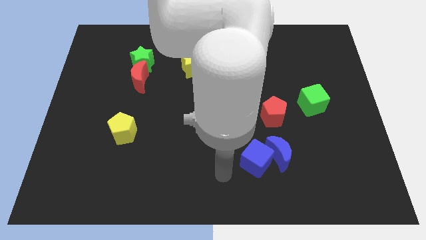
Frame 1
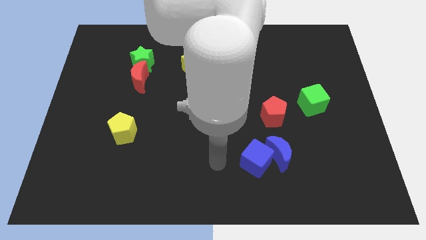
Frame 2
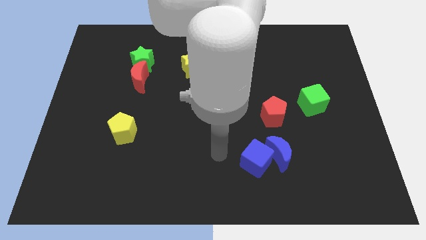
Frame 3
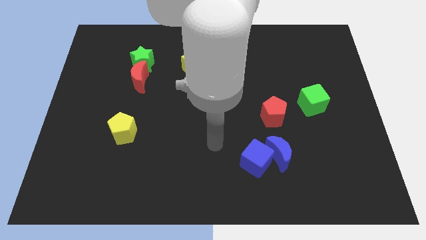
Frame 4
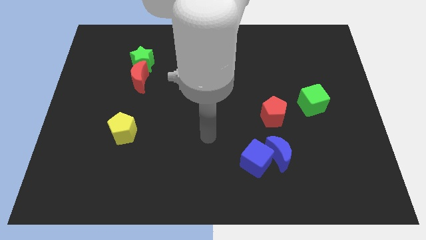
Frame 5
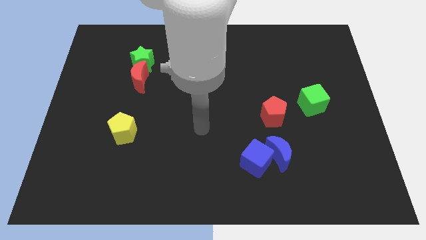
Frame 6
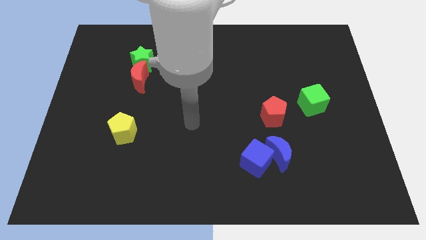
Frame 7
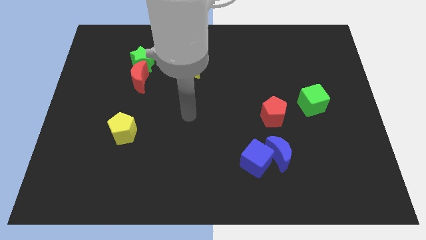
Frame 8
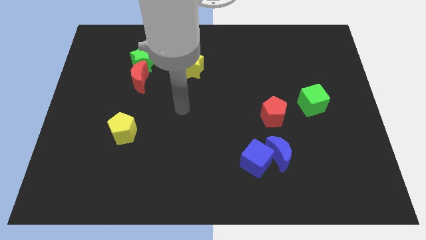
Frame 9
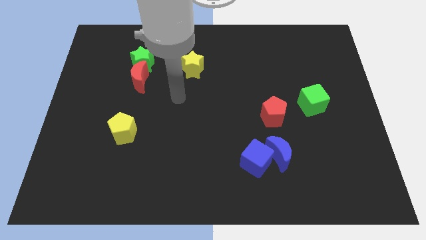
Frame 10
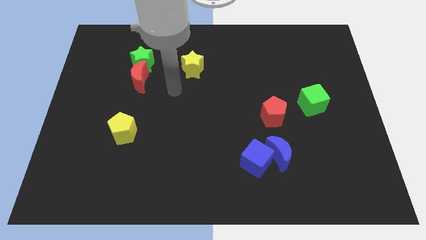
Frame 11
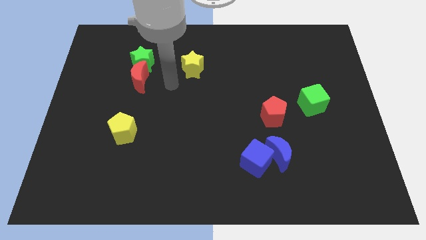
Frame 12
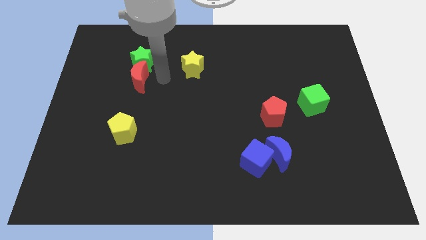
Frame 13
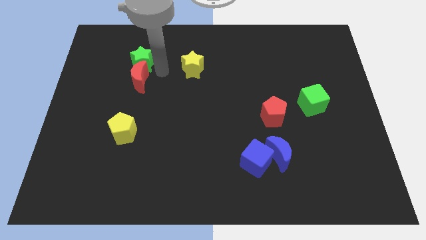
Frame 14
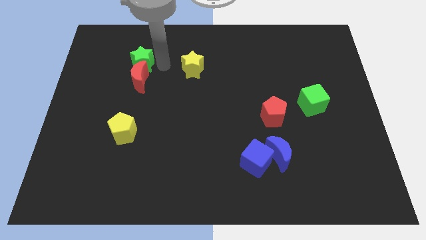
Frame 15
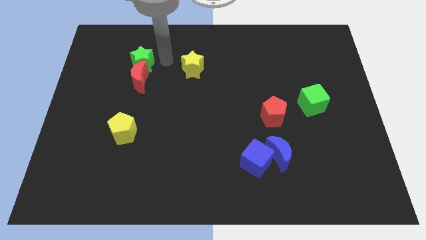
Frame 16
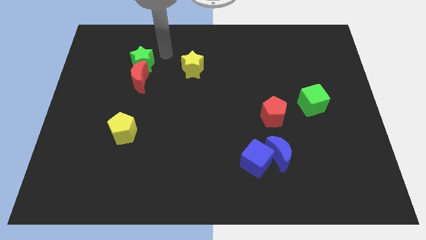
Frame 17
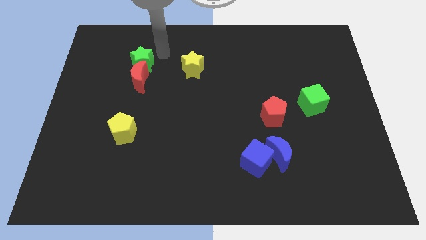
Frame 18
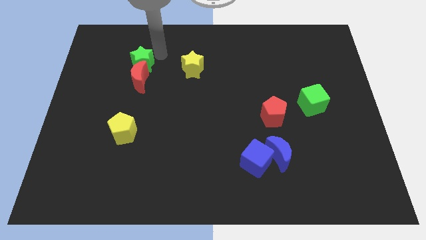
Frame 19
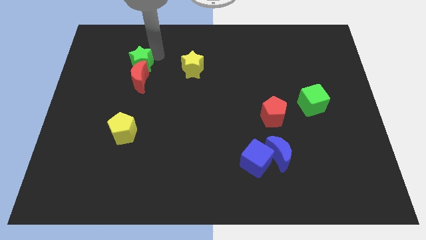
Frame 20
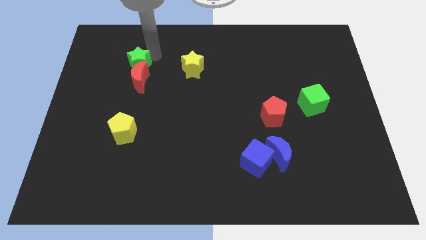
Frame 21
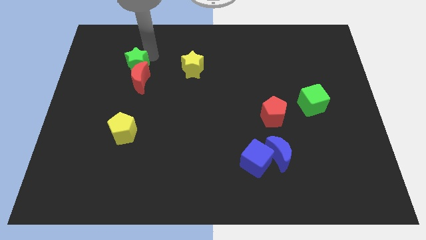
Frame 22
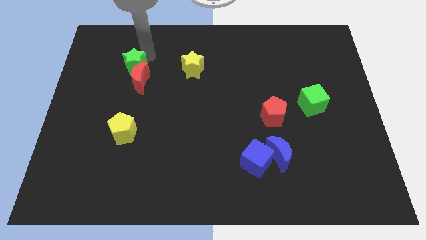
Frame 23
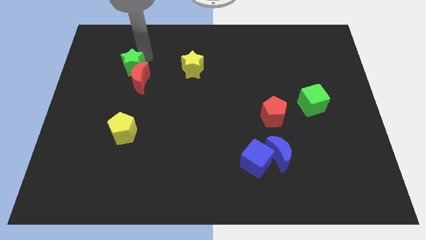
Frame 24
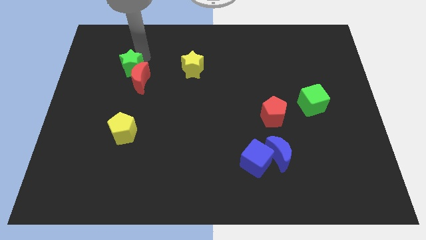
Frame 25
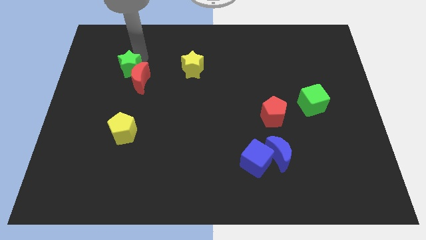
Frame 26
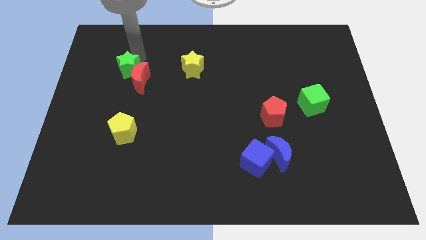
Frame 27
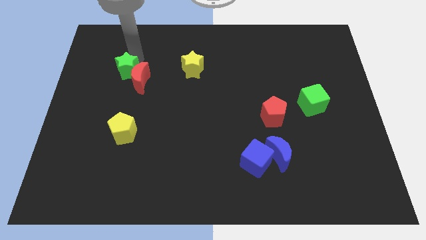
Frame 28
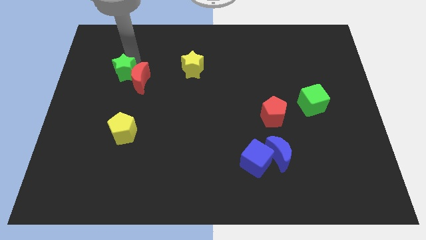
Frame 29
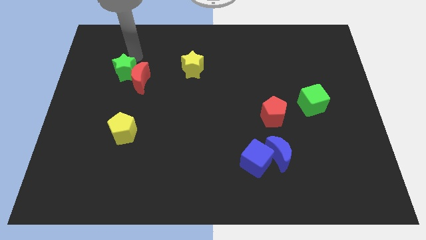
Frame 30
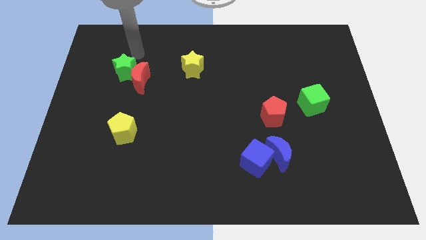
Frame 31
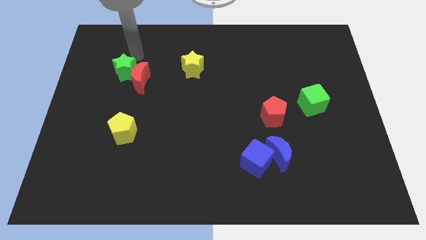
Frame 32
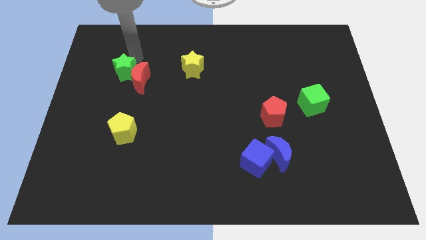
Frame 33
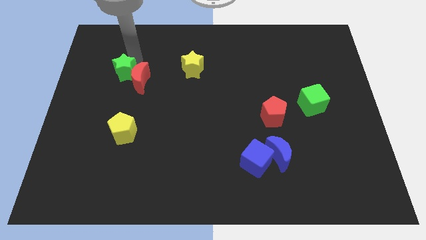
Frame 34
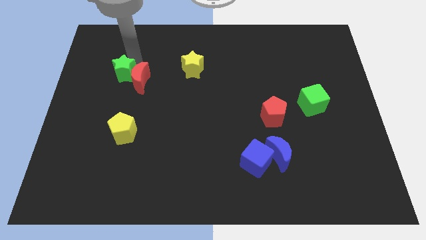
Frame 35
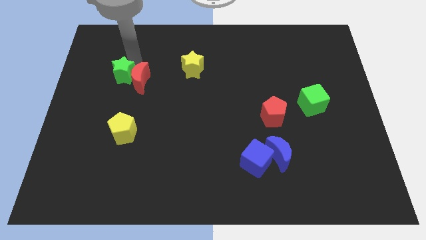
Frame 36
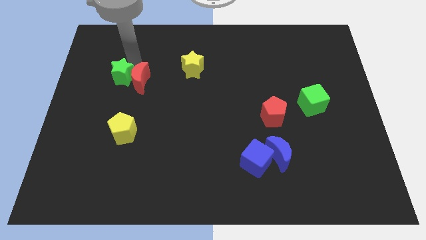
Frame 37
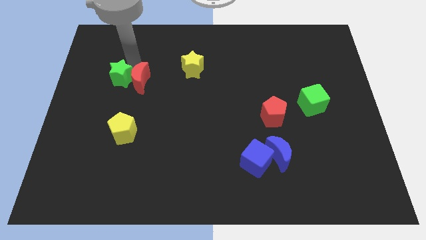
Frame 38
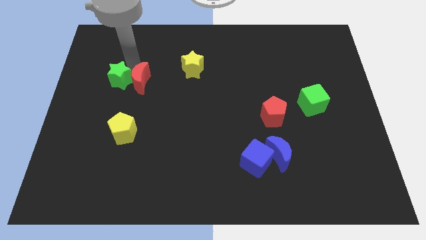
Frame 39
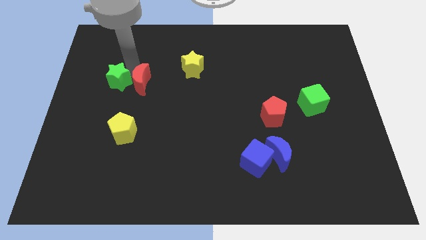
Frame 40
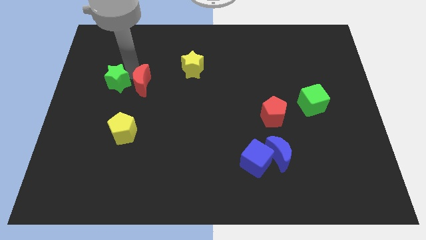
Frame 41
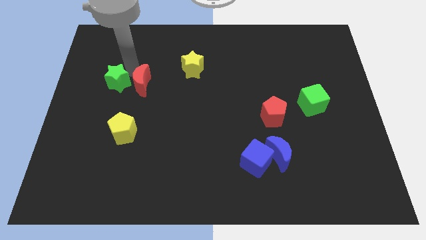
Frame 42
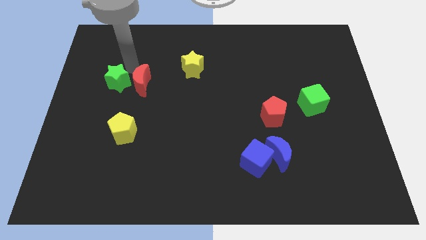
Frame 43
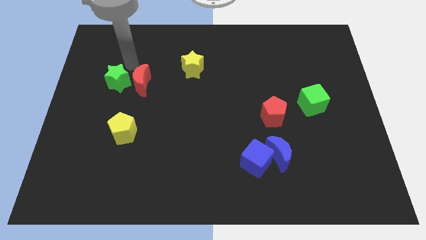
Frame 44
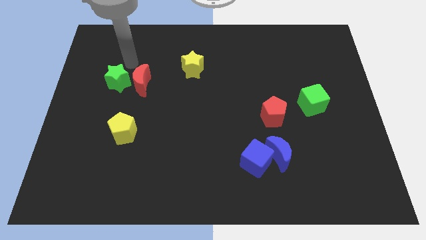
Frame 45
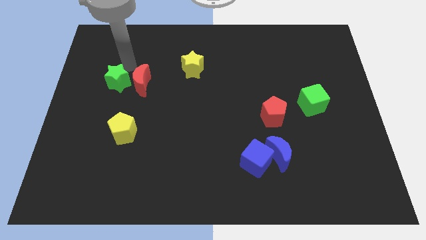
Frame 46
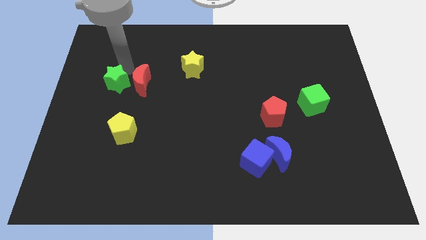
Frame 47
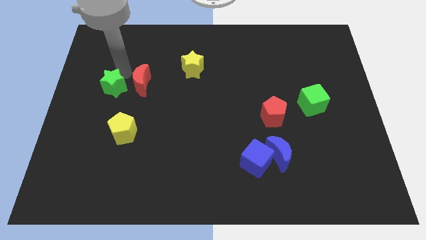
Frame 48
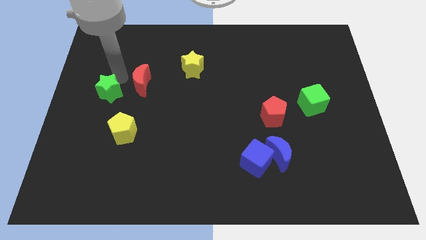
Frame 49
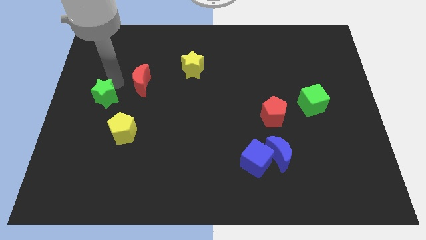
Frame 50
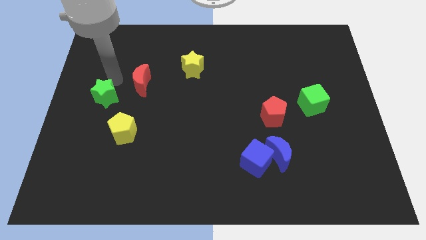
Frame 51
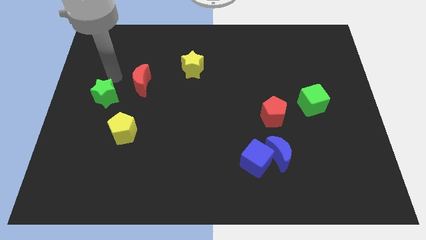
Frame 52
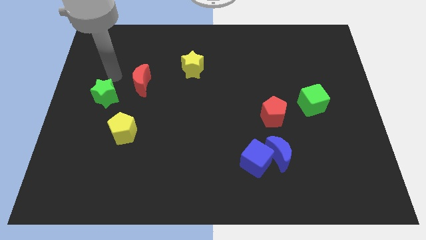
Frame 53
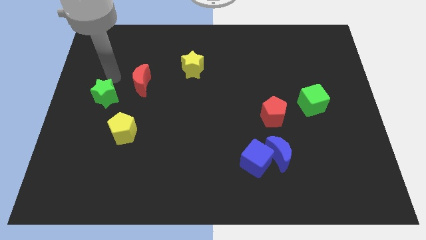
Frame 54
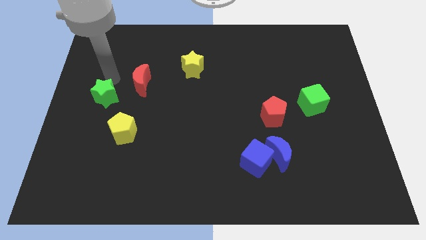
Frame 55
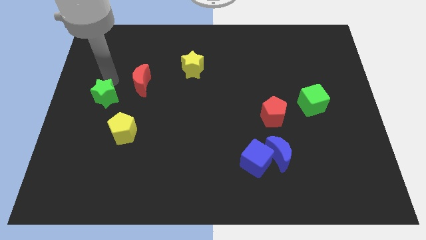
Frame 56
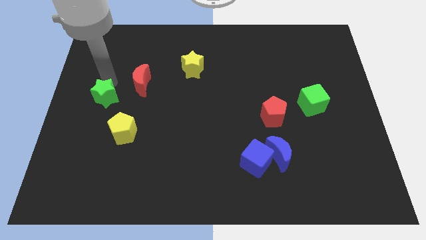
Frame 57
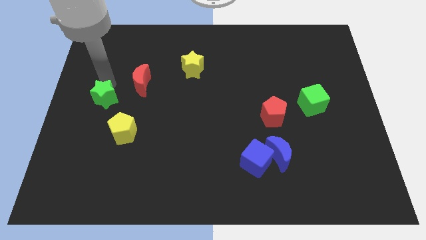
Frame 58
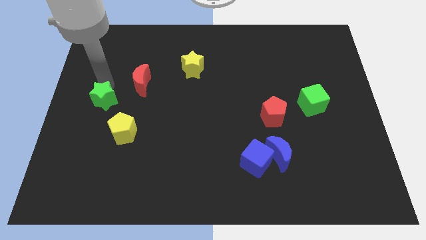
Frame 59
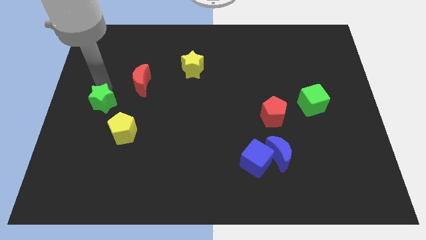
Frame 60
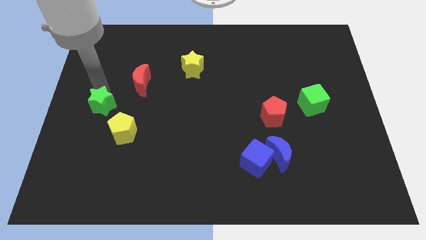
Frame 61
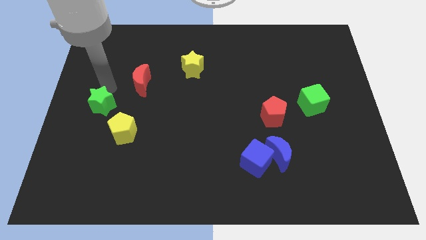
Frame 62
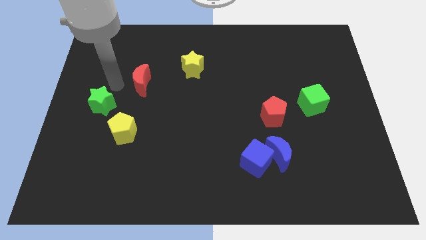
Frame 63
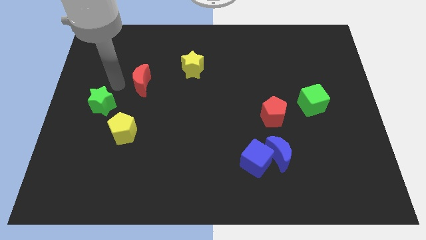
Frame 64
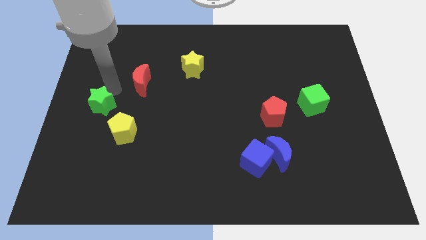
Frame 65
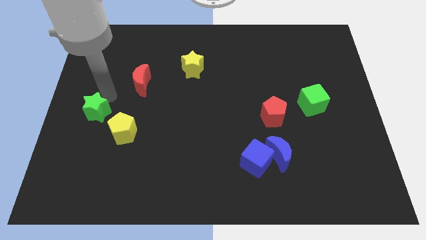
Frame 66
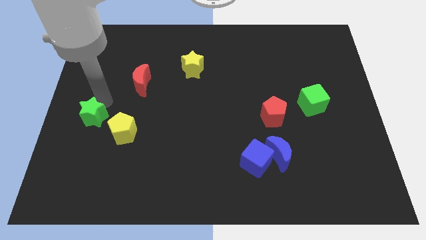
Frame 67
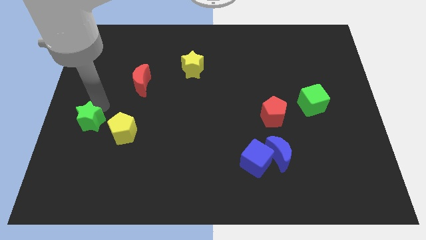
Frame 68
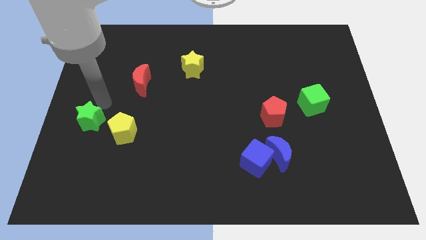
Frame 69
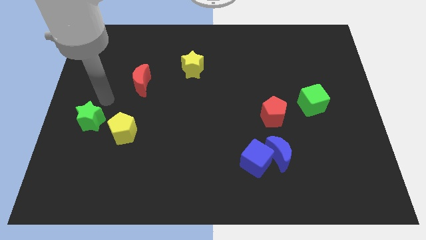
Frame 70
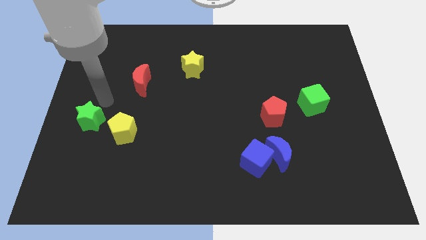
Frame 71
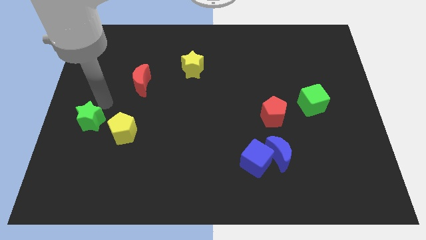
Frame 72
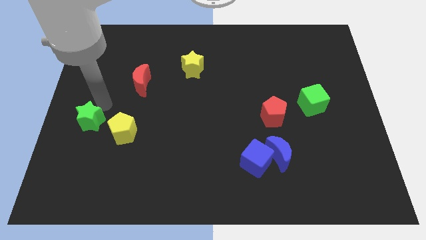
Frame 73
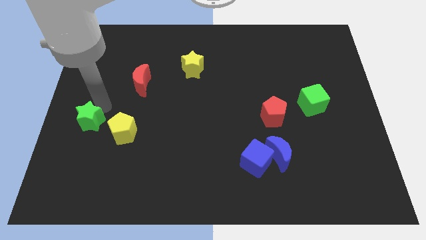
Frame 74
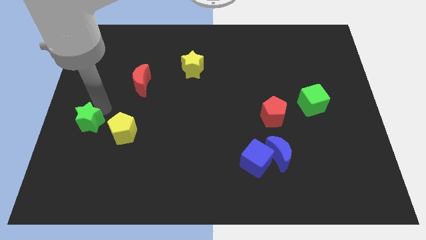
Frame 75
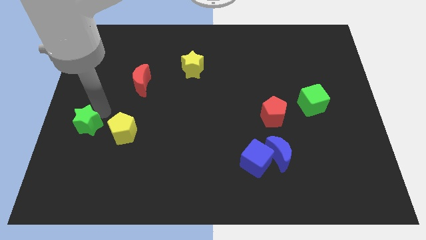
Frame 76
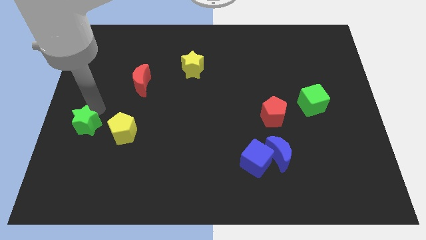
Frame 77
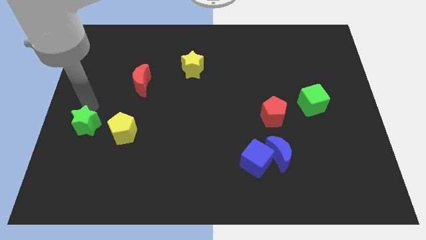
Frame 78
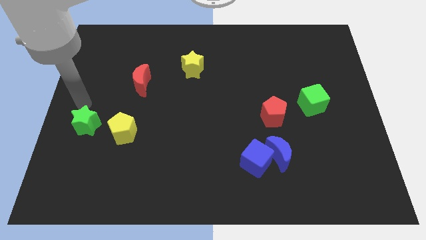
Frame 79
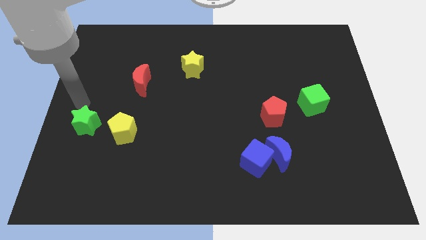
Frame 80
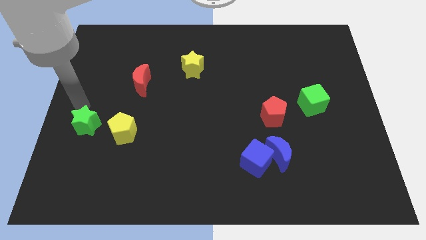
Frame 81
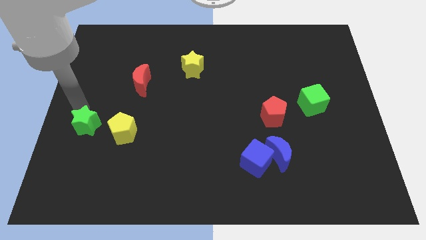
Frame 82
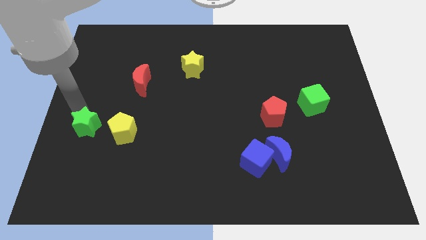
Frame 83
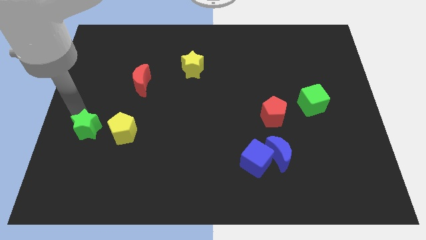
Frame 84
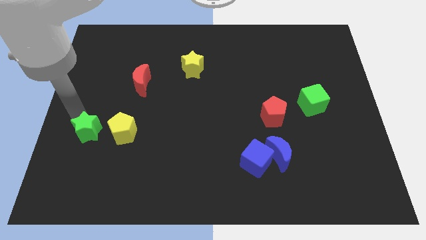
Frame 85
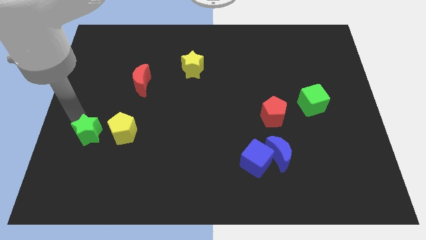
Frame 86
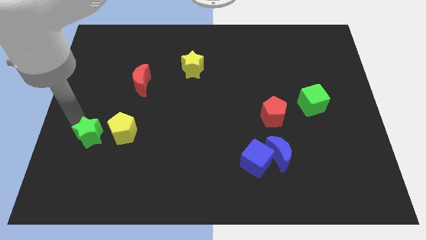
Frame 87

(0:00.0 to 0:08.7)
slide the green star to the bottom left of the yellow pentagon
